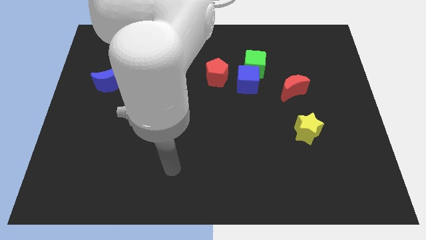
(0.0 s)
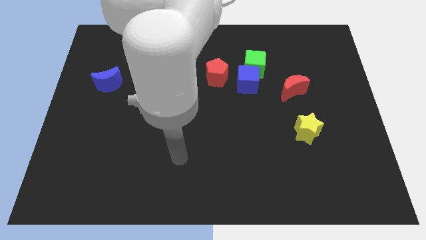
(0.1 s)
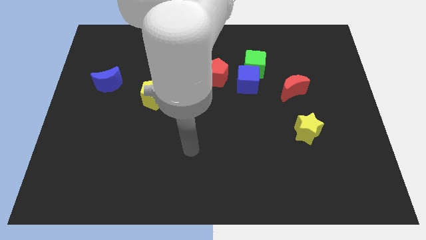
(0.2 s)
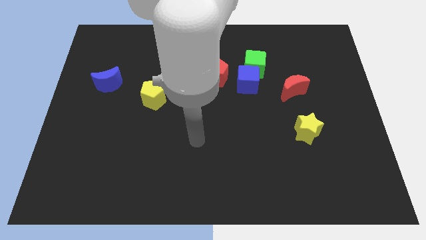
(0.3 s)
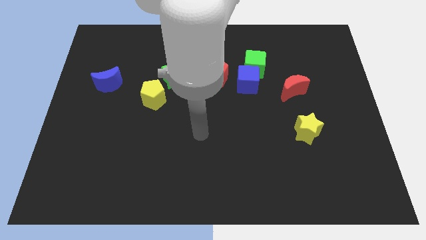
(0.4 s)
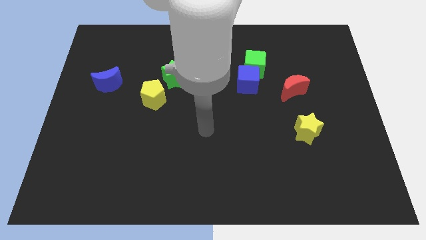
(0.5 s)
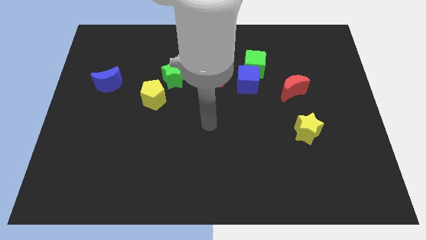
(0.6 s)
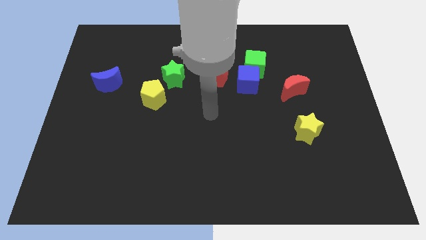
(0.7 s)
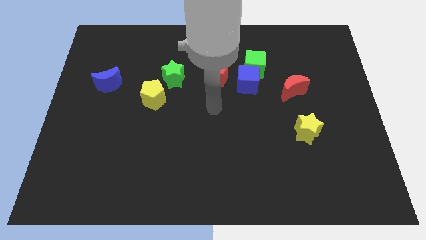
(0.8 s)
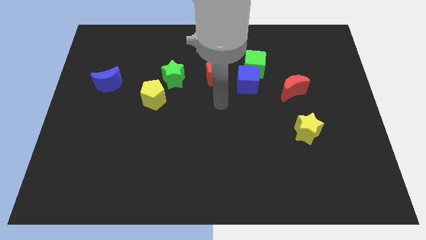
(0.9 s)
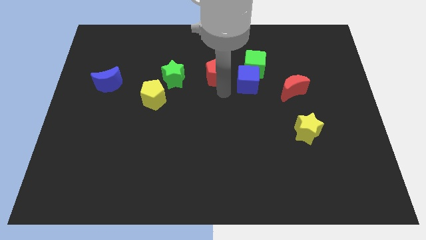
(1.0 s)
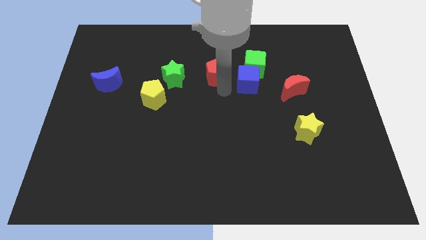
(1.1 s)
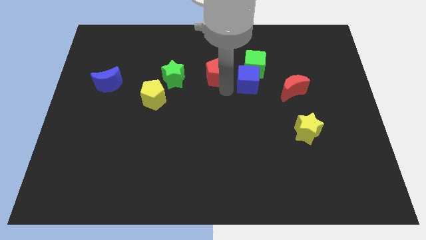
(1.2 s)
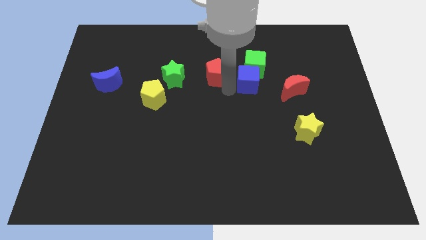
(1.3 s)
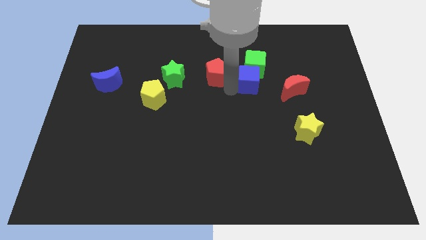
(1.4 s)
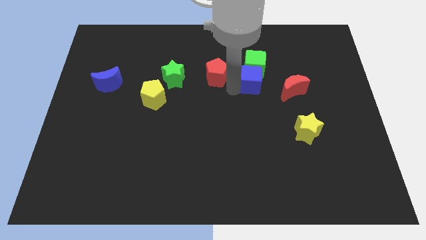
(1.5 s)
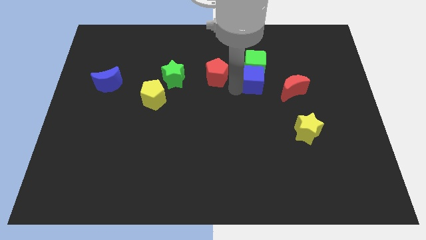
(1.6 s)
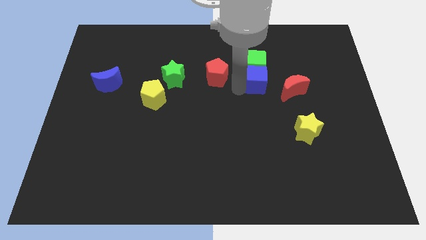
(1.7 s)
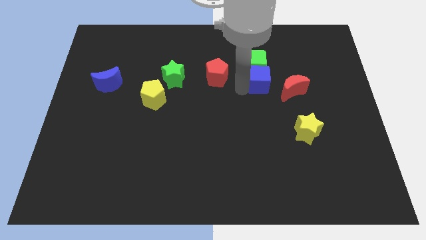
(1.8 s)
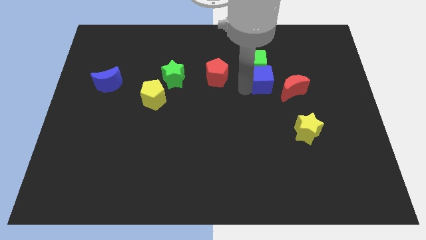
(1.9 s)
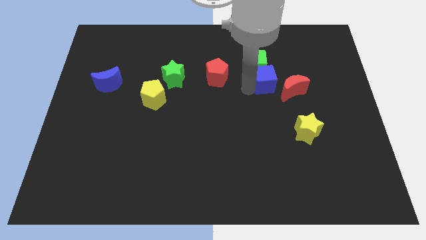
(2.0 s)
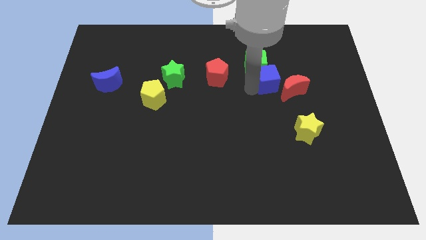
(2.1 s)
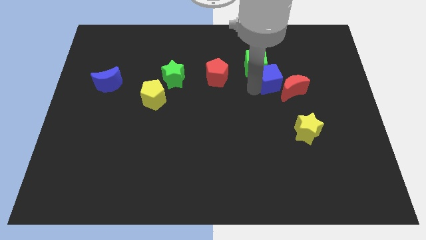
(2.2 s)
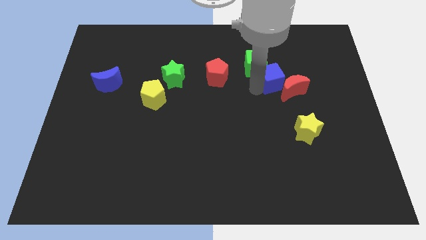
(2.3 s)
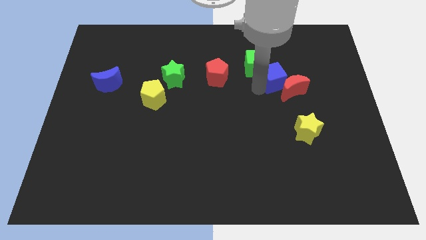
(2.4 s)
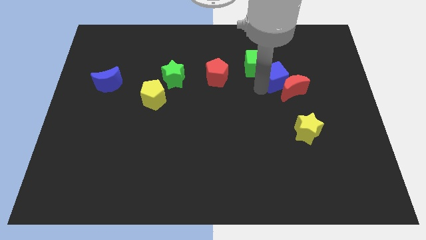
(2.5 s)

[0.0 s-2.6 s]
push the blue cube right a little bit

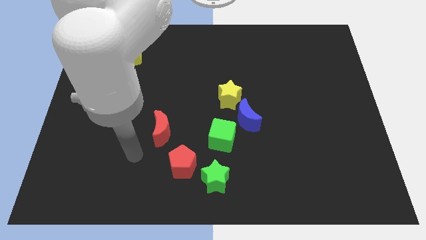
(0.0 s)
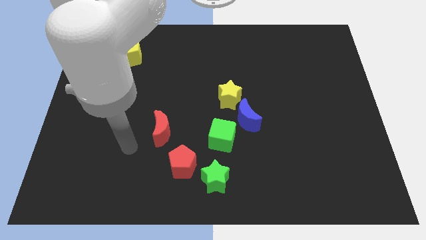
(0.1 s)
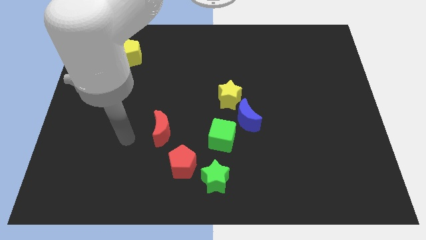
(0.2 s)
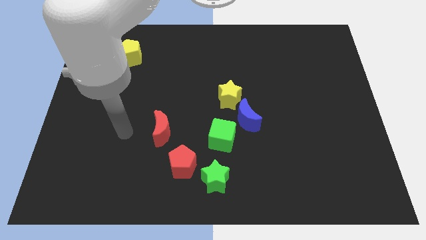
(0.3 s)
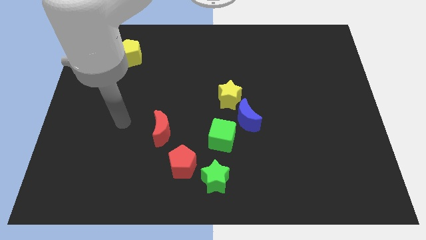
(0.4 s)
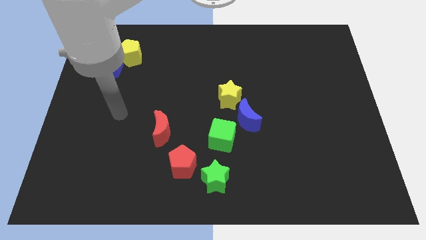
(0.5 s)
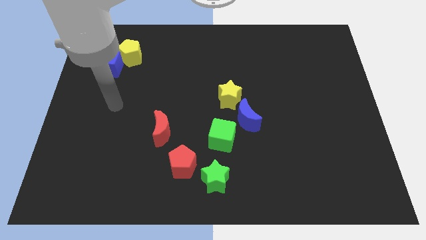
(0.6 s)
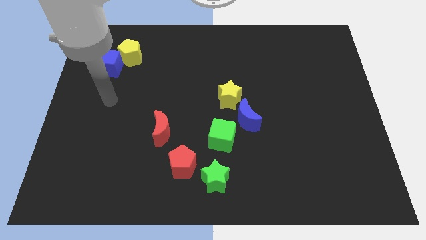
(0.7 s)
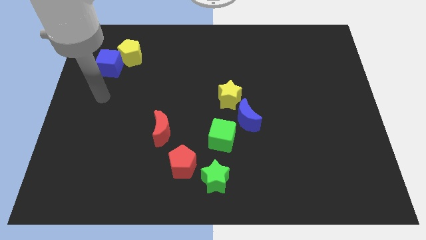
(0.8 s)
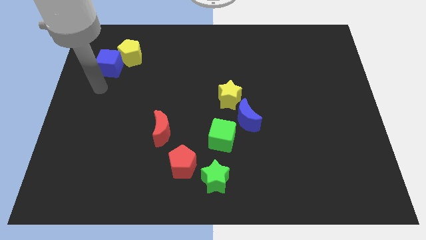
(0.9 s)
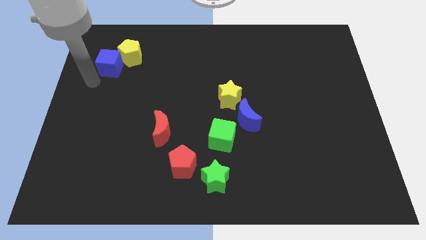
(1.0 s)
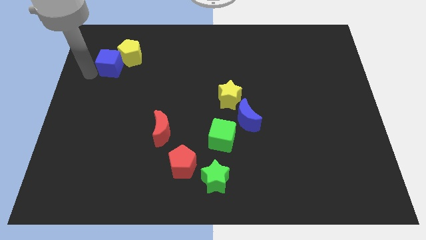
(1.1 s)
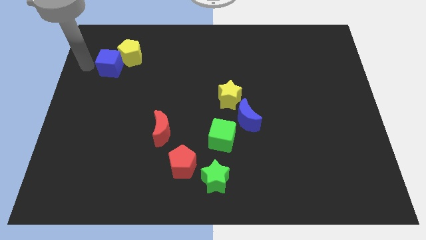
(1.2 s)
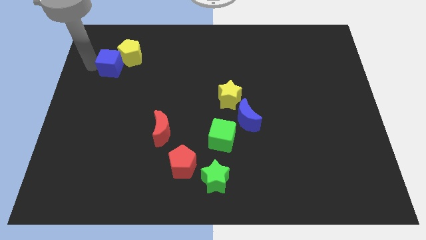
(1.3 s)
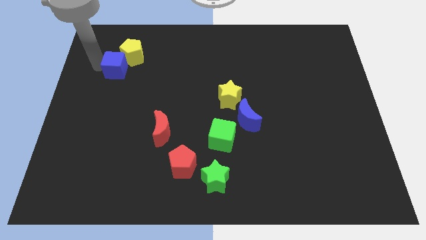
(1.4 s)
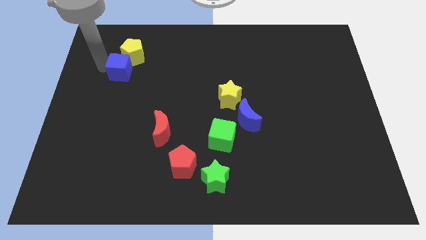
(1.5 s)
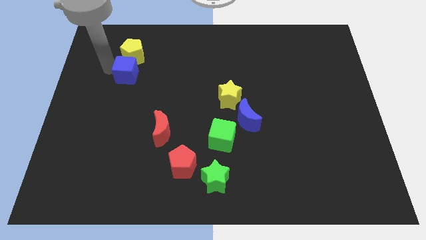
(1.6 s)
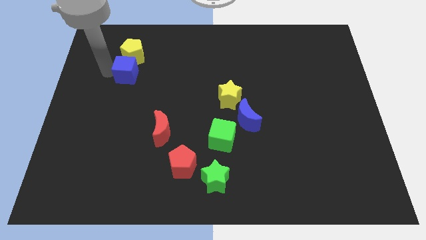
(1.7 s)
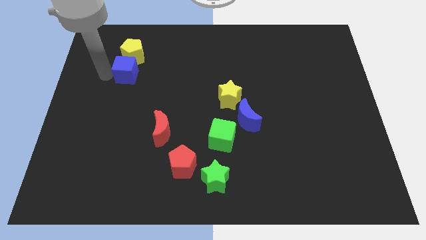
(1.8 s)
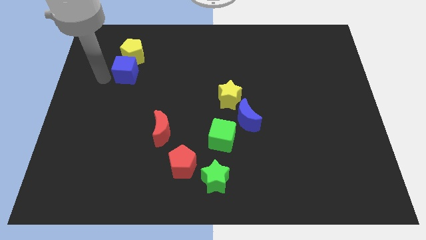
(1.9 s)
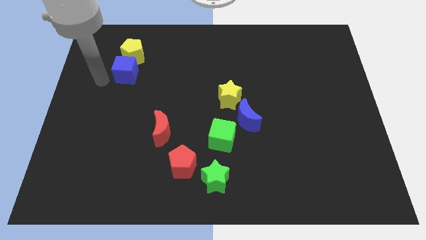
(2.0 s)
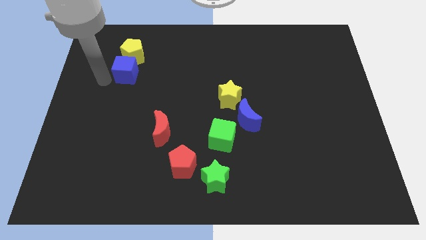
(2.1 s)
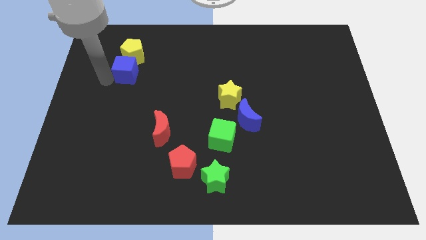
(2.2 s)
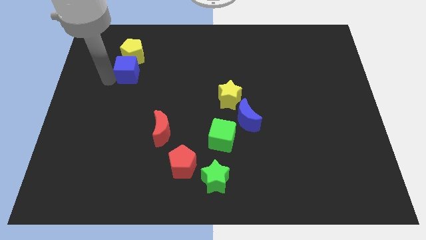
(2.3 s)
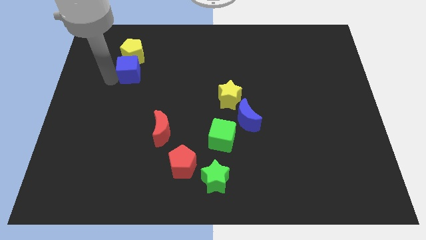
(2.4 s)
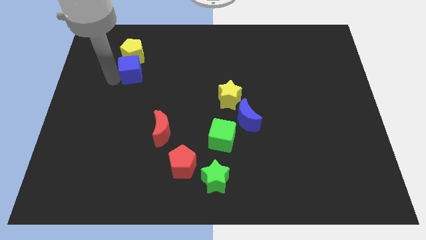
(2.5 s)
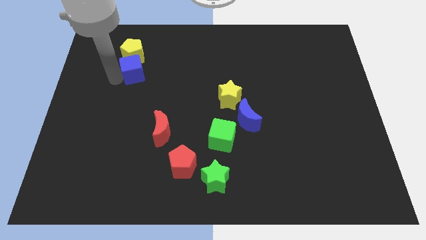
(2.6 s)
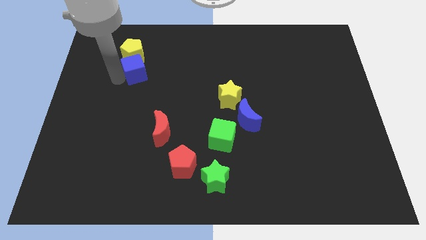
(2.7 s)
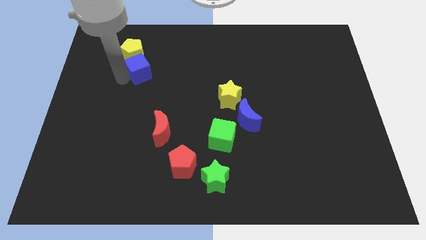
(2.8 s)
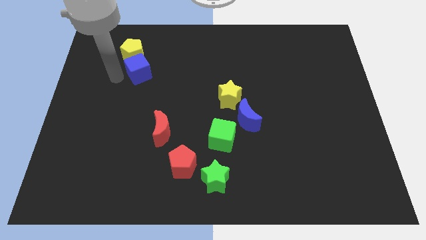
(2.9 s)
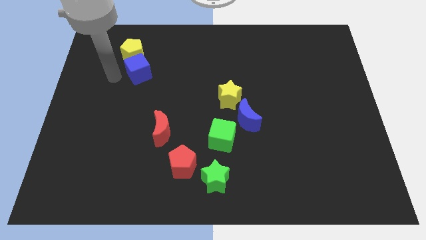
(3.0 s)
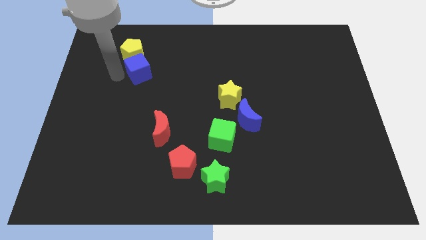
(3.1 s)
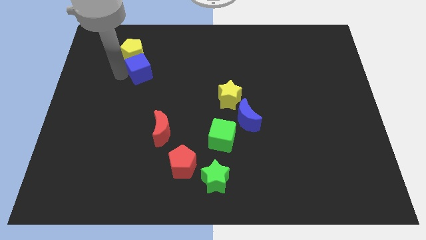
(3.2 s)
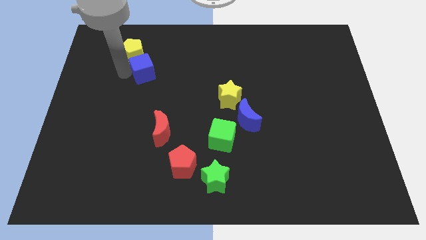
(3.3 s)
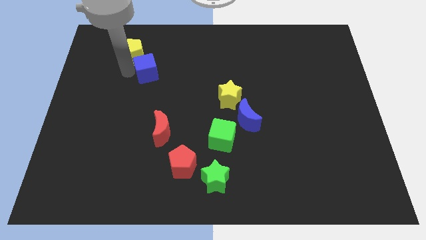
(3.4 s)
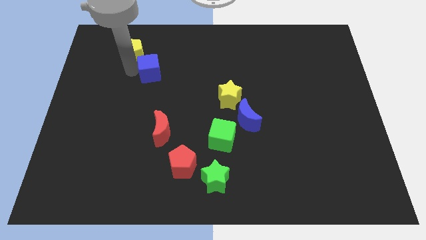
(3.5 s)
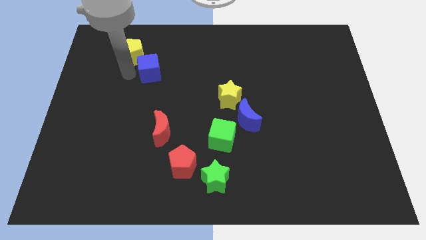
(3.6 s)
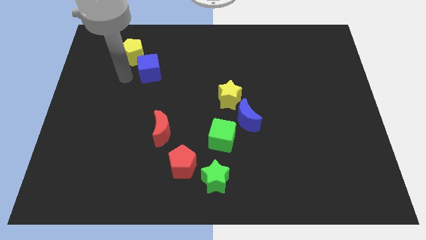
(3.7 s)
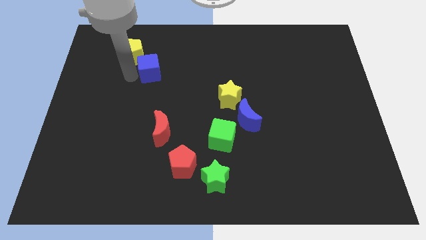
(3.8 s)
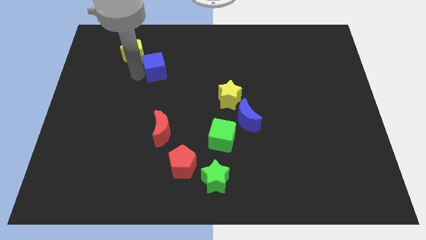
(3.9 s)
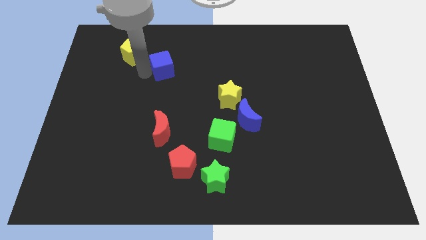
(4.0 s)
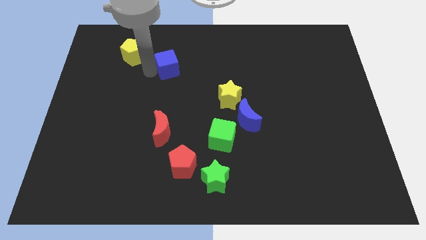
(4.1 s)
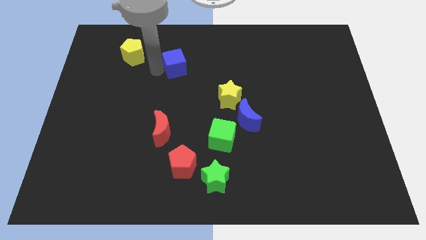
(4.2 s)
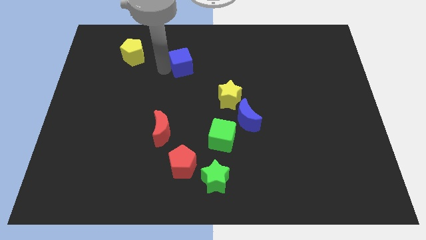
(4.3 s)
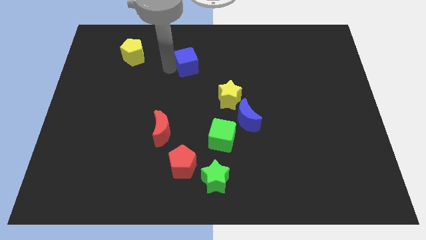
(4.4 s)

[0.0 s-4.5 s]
move the blue cube to the right

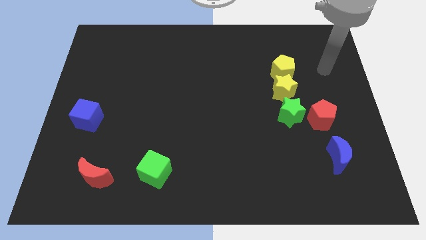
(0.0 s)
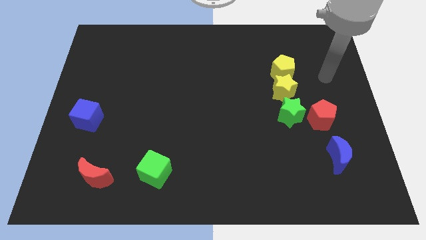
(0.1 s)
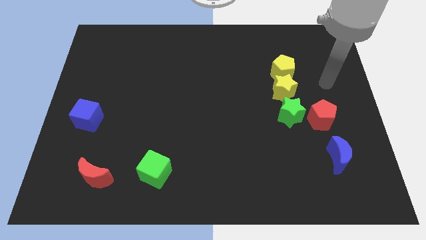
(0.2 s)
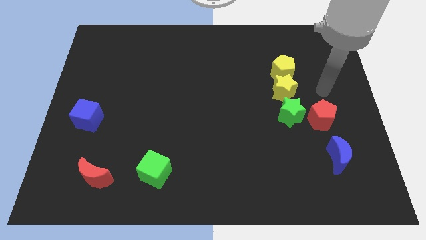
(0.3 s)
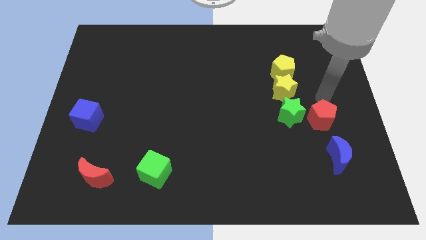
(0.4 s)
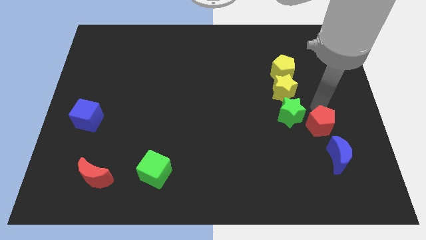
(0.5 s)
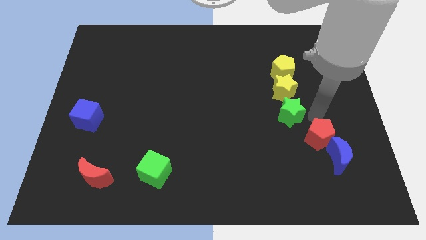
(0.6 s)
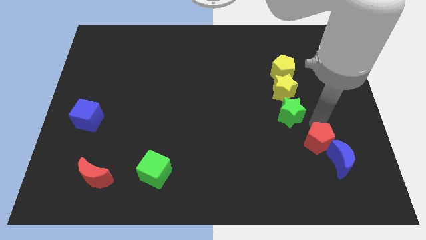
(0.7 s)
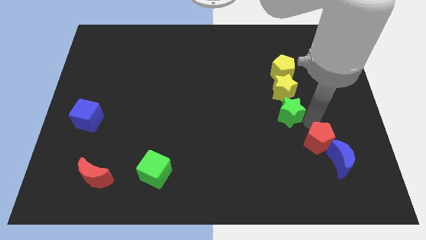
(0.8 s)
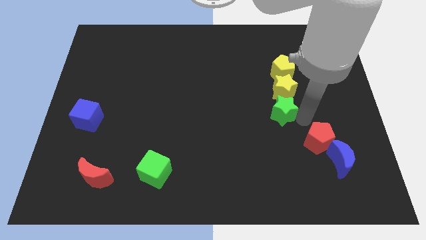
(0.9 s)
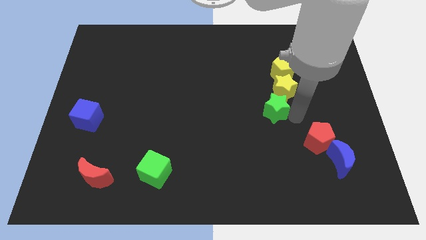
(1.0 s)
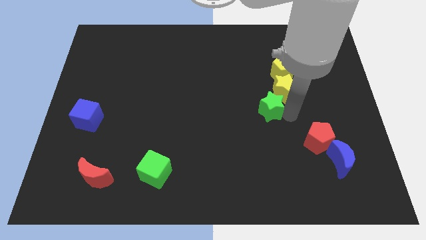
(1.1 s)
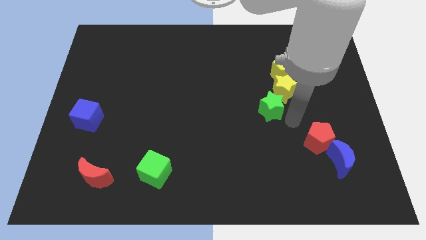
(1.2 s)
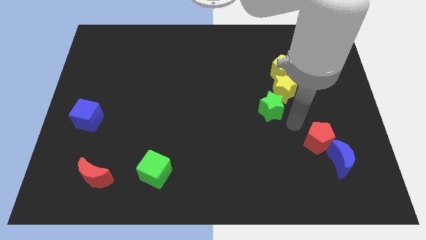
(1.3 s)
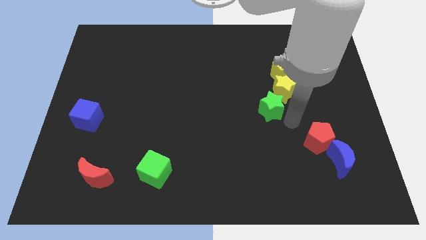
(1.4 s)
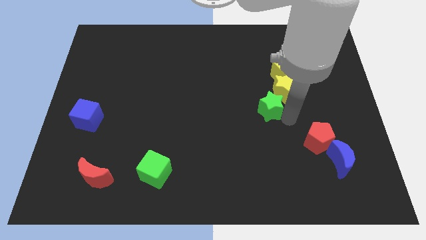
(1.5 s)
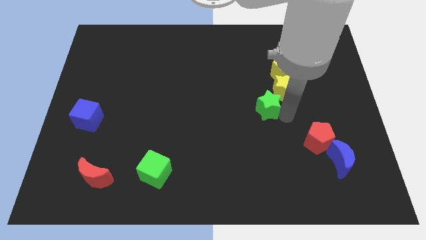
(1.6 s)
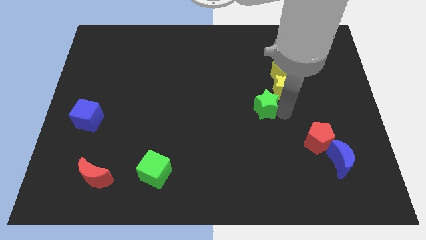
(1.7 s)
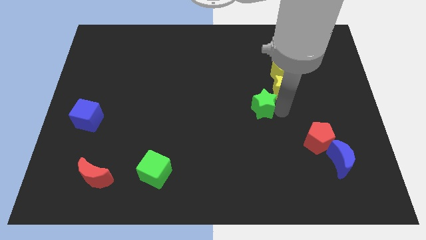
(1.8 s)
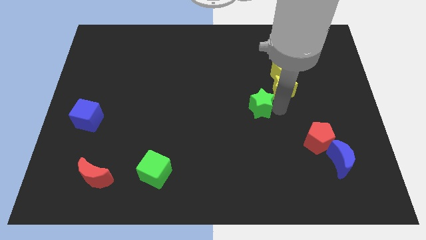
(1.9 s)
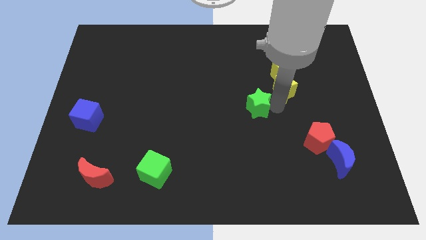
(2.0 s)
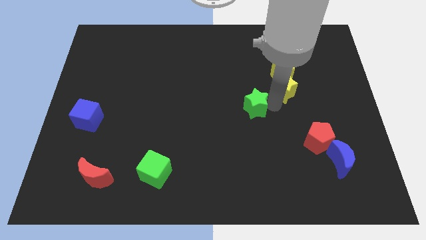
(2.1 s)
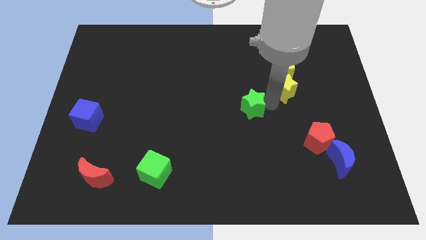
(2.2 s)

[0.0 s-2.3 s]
slide the green star upwards and to the left a little
